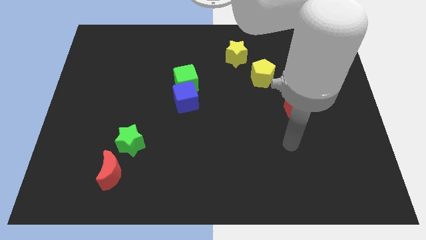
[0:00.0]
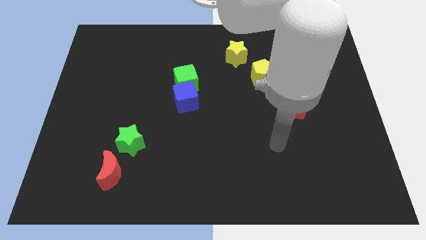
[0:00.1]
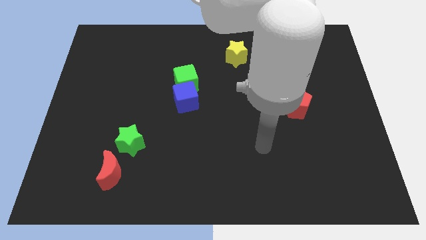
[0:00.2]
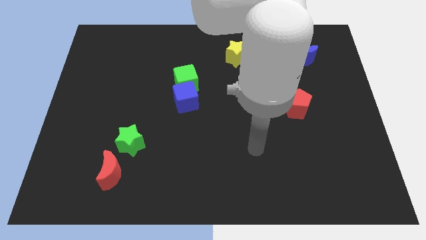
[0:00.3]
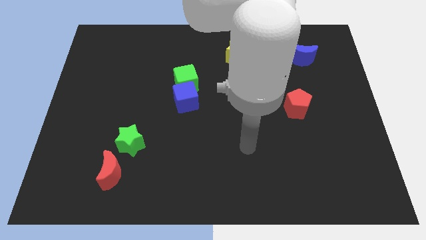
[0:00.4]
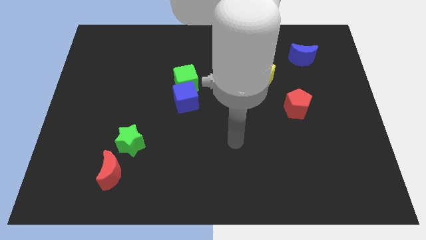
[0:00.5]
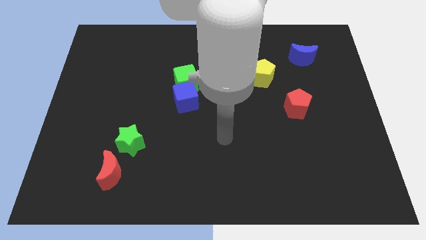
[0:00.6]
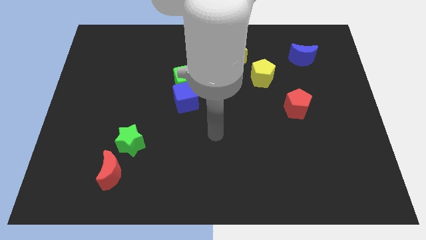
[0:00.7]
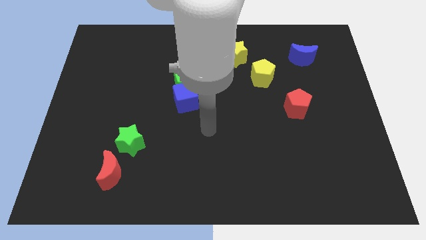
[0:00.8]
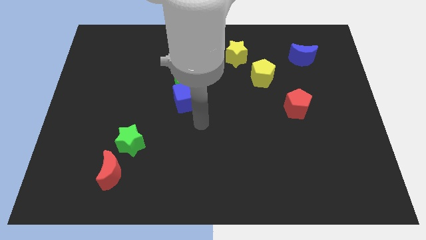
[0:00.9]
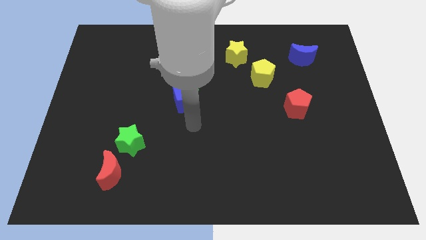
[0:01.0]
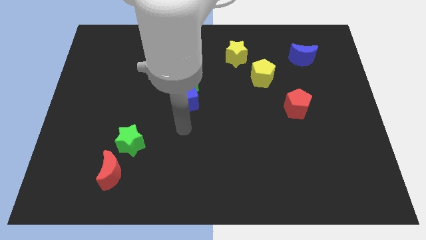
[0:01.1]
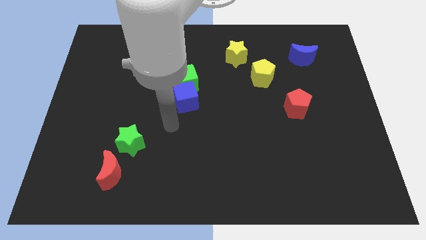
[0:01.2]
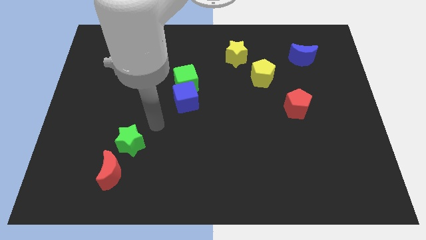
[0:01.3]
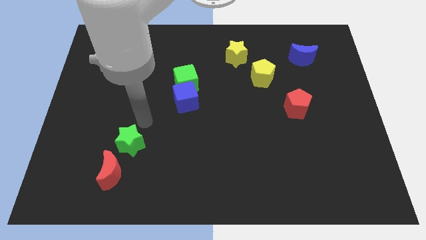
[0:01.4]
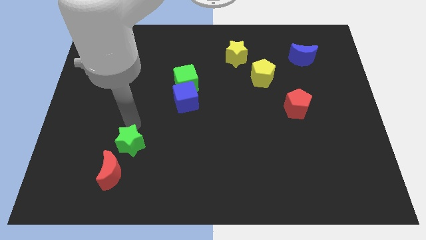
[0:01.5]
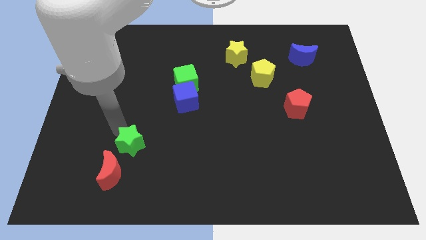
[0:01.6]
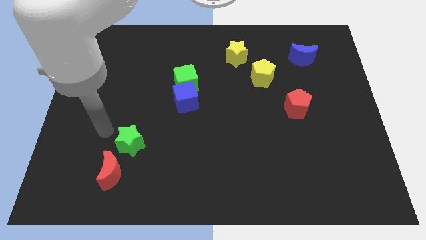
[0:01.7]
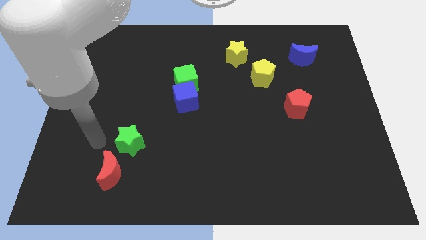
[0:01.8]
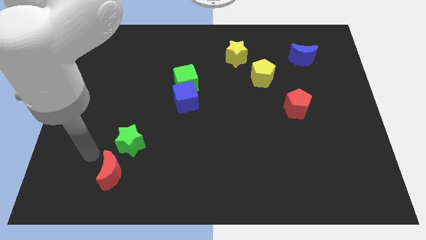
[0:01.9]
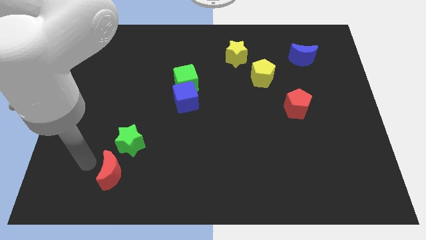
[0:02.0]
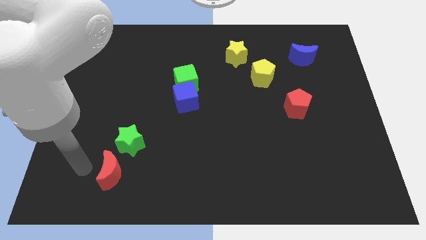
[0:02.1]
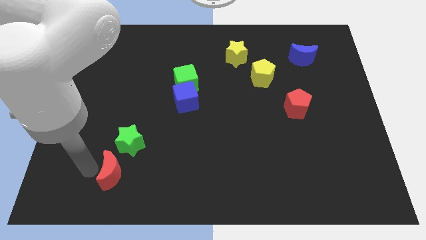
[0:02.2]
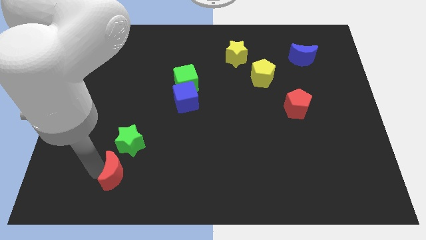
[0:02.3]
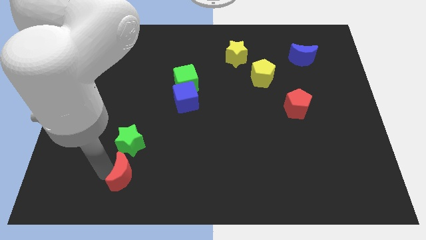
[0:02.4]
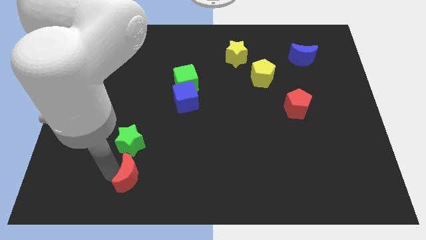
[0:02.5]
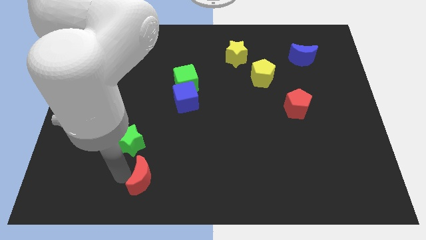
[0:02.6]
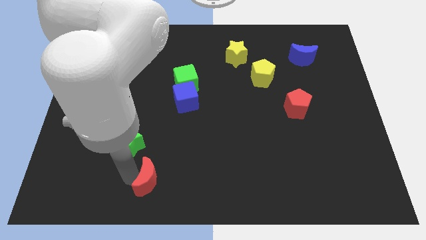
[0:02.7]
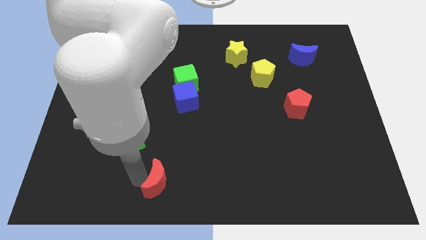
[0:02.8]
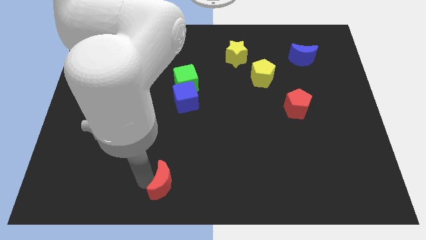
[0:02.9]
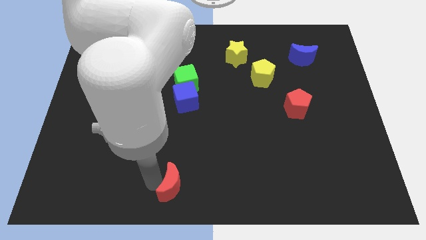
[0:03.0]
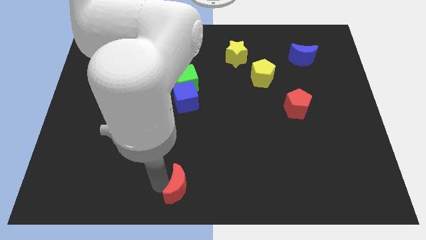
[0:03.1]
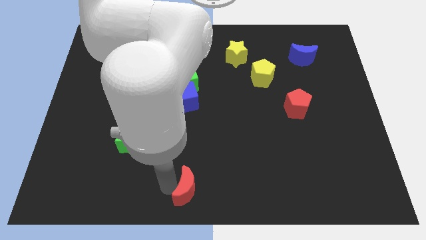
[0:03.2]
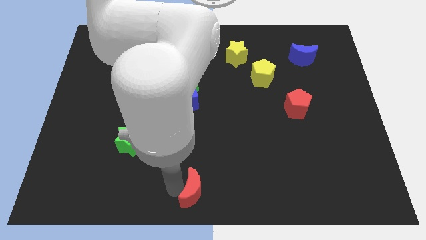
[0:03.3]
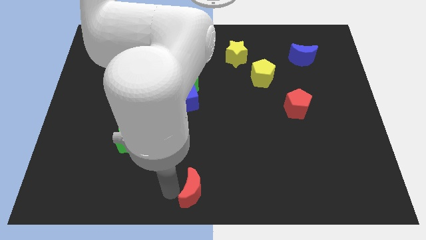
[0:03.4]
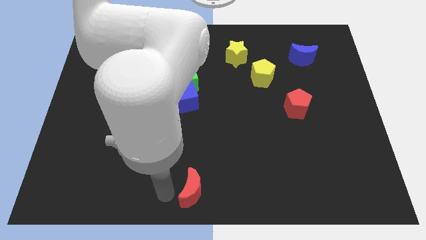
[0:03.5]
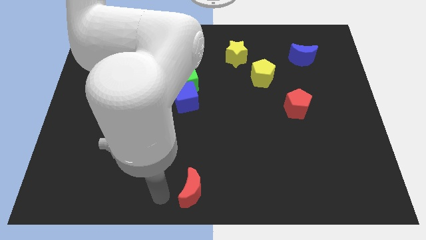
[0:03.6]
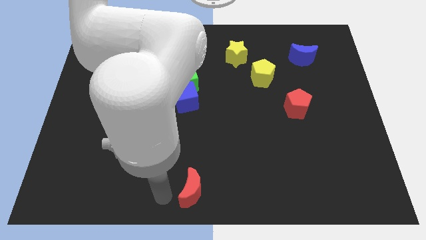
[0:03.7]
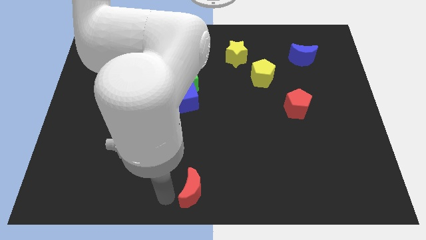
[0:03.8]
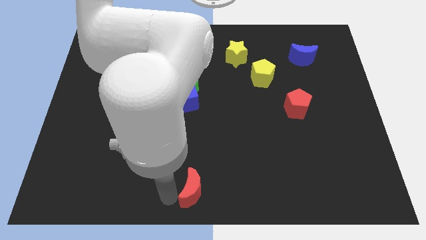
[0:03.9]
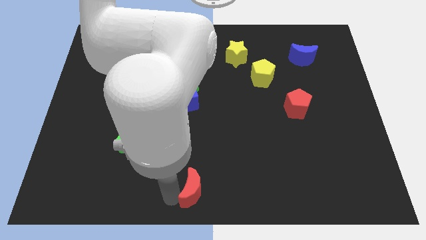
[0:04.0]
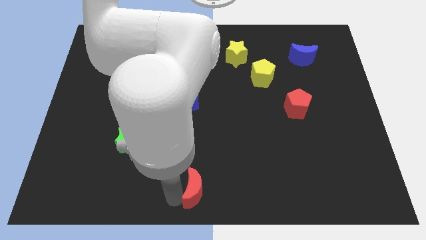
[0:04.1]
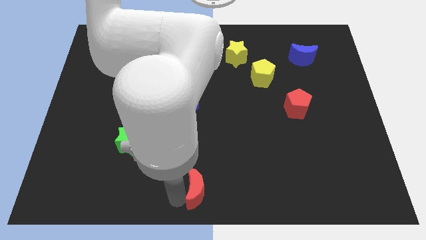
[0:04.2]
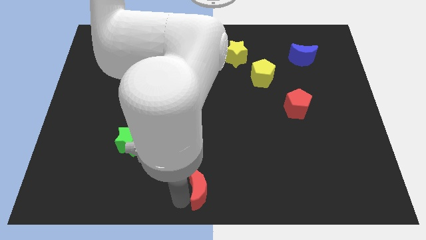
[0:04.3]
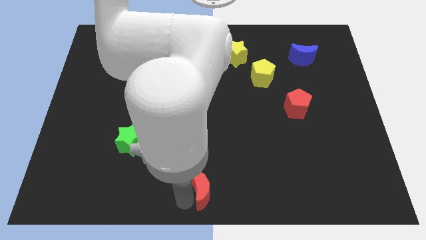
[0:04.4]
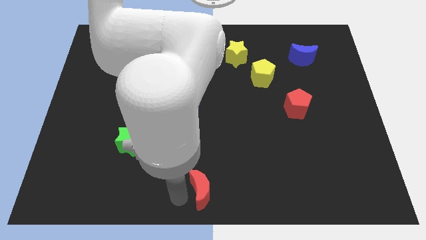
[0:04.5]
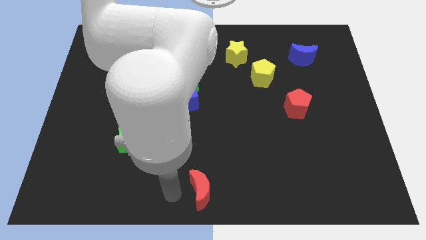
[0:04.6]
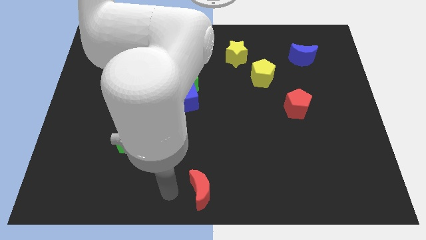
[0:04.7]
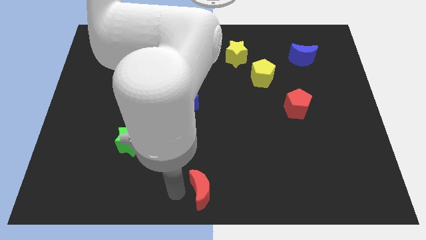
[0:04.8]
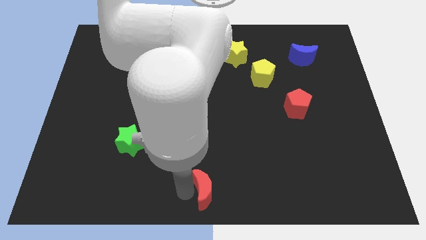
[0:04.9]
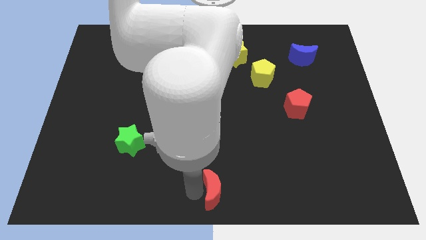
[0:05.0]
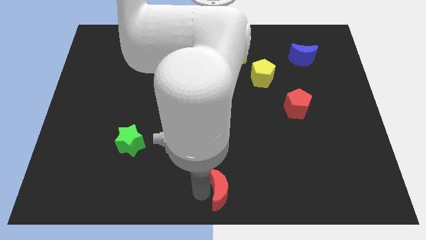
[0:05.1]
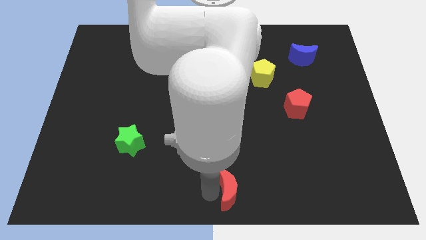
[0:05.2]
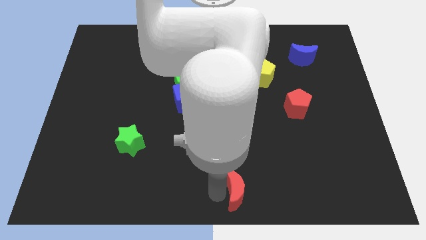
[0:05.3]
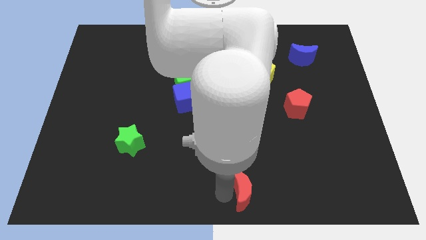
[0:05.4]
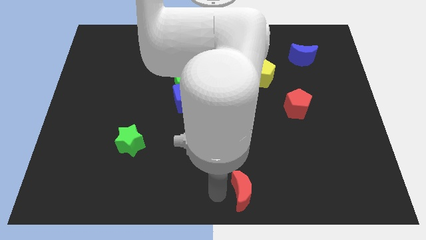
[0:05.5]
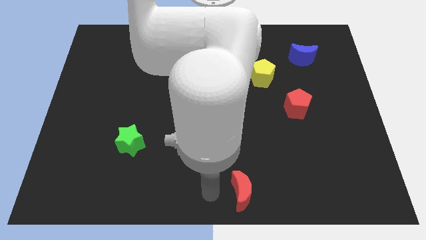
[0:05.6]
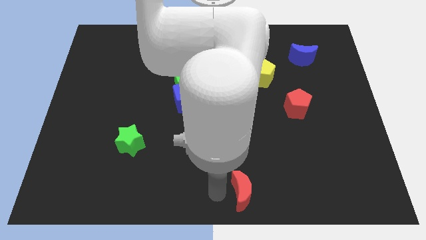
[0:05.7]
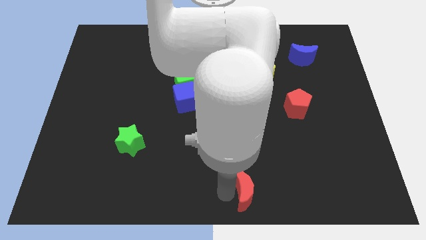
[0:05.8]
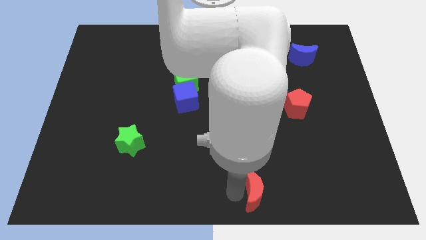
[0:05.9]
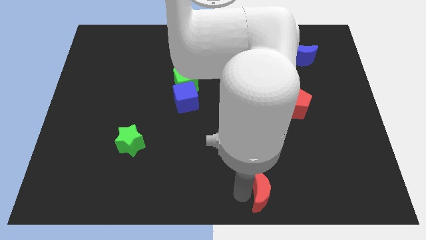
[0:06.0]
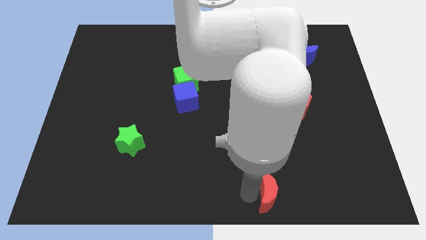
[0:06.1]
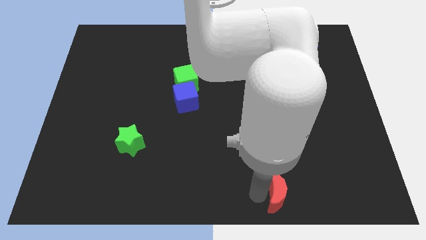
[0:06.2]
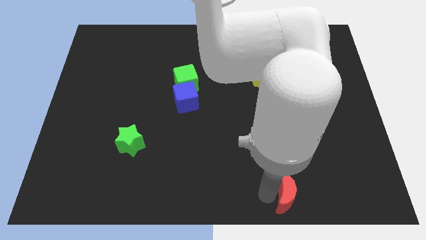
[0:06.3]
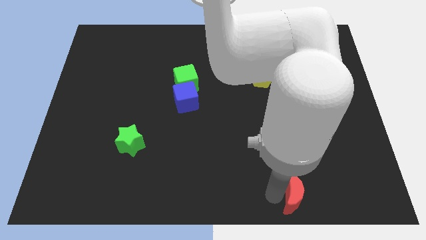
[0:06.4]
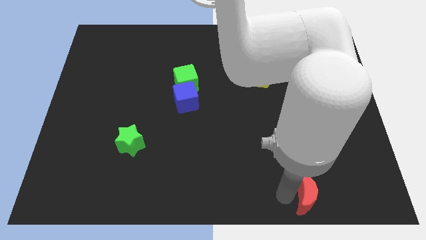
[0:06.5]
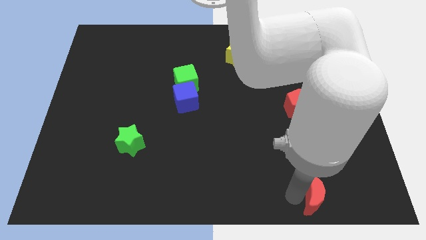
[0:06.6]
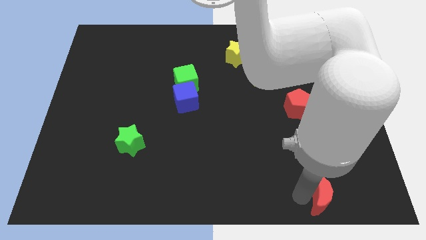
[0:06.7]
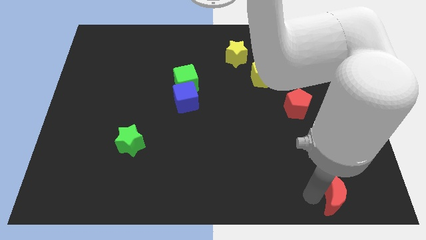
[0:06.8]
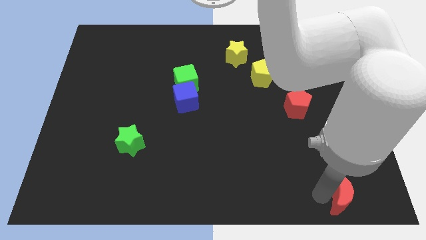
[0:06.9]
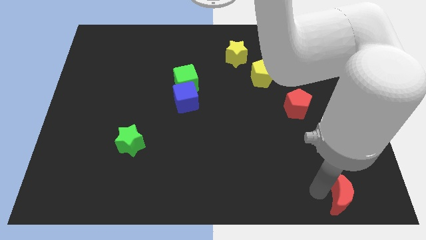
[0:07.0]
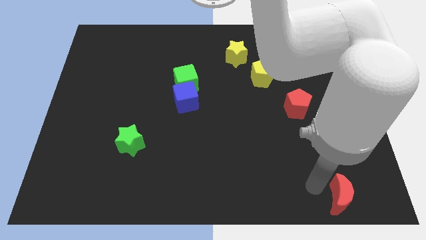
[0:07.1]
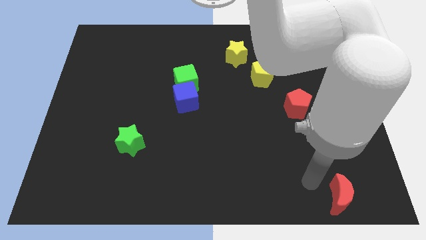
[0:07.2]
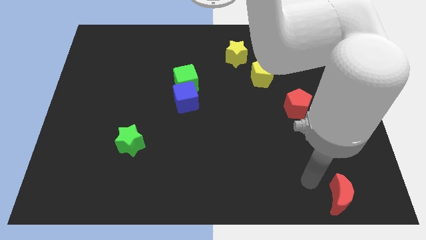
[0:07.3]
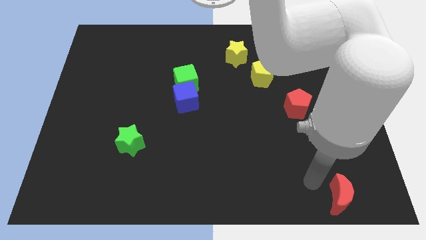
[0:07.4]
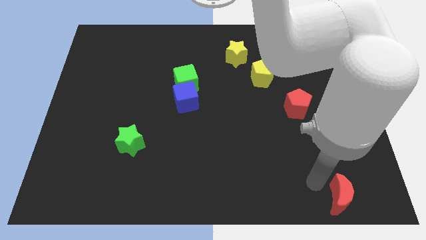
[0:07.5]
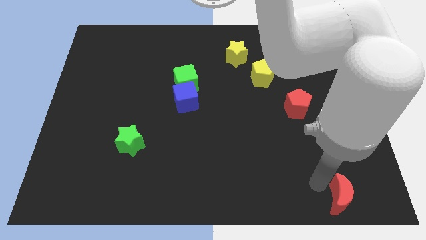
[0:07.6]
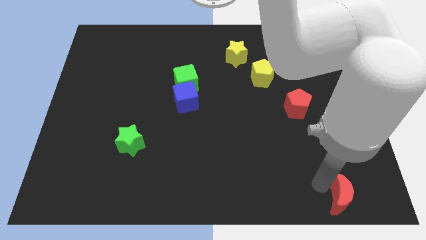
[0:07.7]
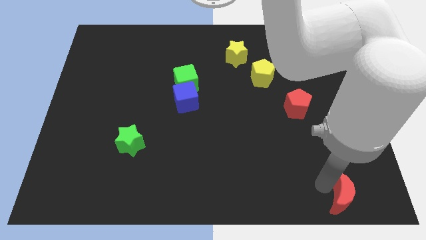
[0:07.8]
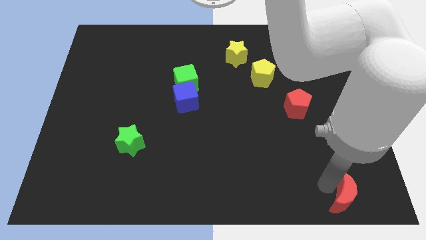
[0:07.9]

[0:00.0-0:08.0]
put the red moon to the lower right corner
